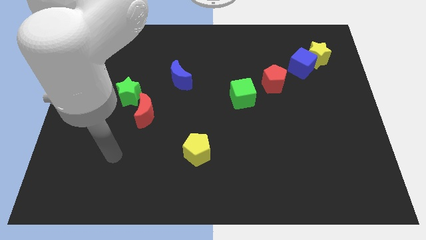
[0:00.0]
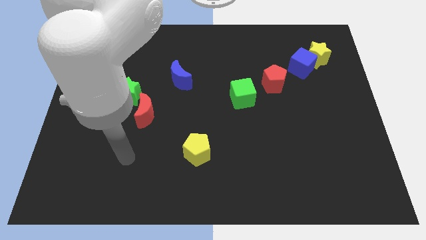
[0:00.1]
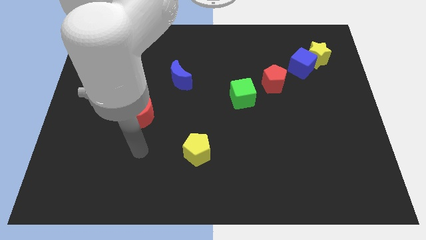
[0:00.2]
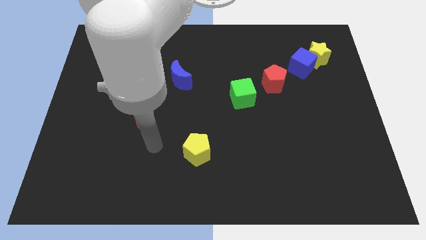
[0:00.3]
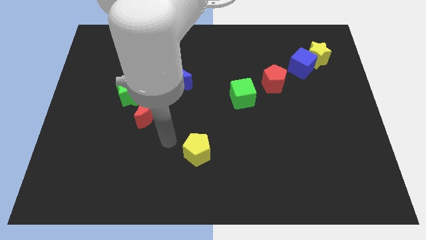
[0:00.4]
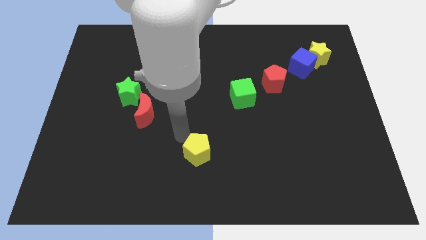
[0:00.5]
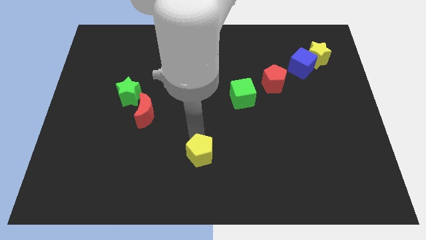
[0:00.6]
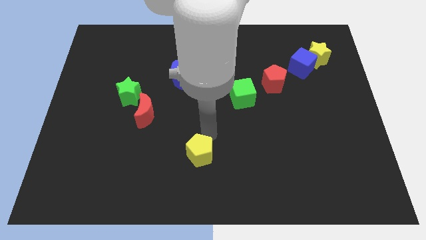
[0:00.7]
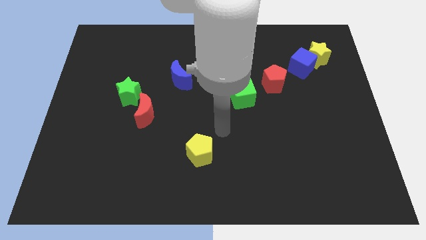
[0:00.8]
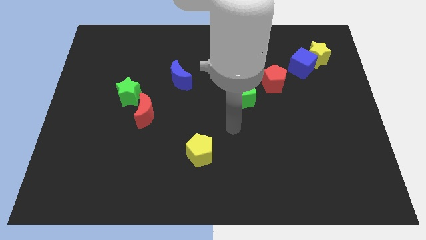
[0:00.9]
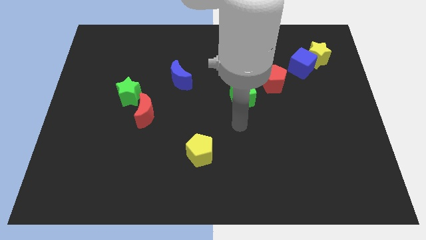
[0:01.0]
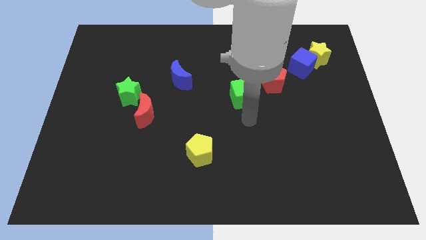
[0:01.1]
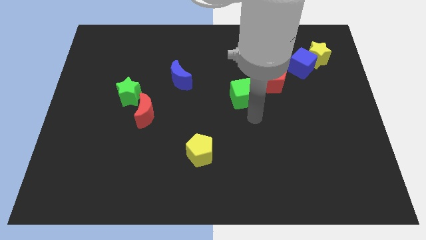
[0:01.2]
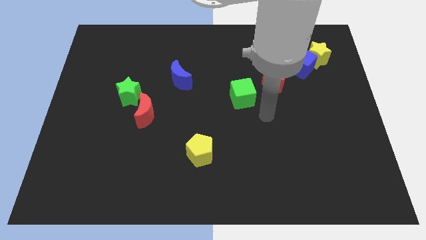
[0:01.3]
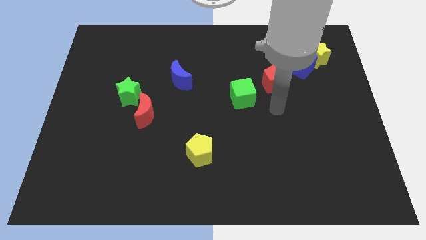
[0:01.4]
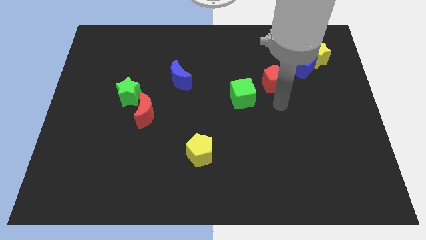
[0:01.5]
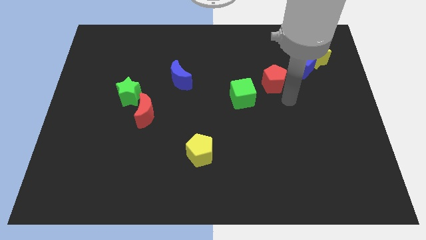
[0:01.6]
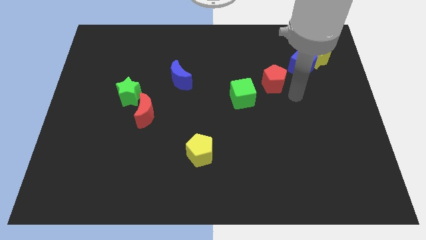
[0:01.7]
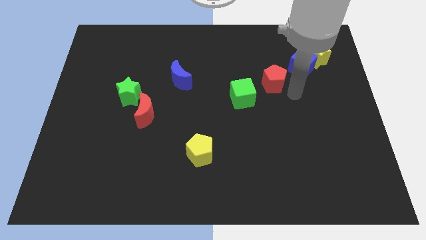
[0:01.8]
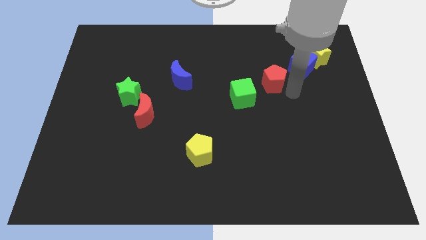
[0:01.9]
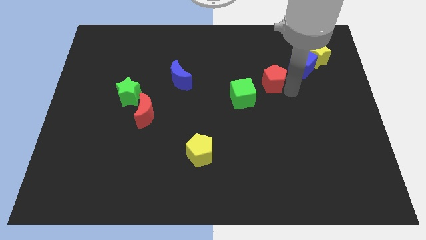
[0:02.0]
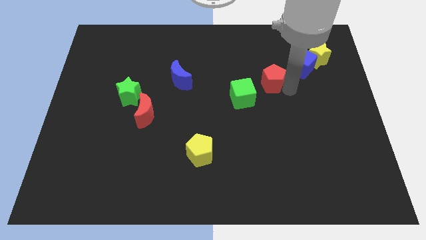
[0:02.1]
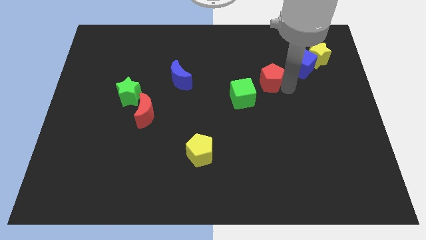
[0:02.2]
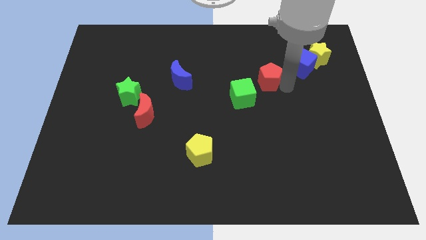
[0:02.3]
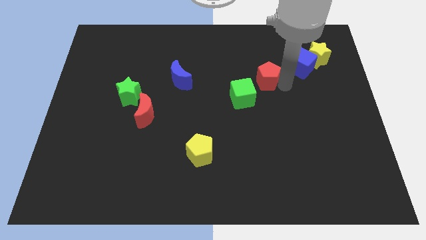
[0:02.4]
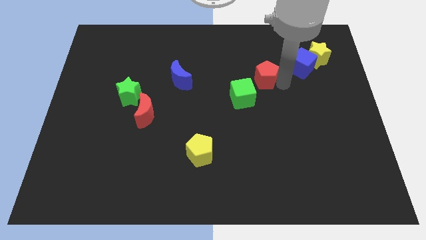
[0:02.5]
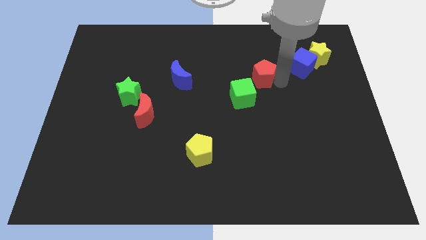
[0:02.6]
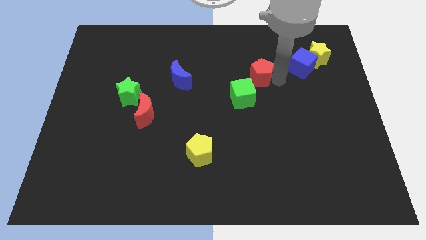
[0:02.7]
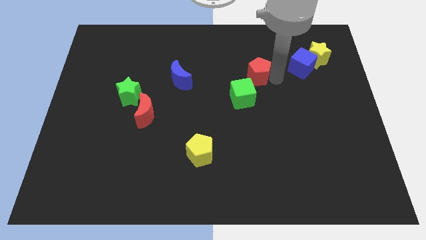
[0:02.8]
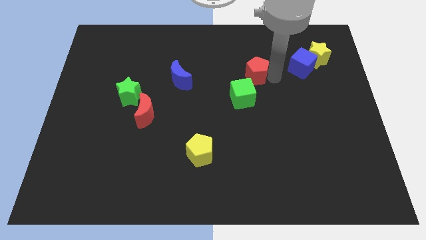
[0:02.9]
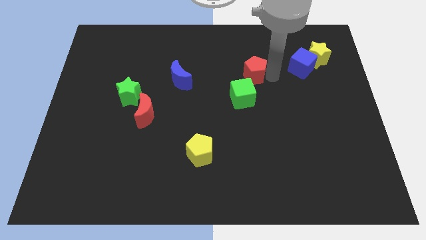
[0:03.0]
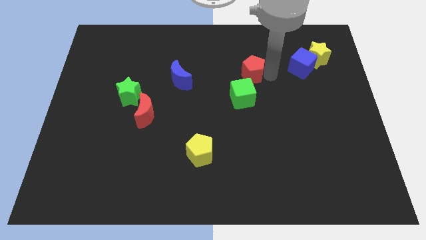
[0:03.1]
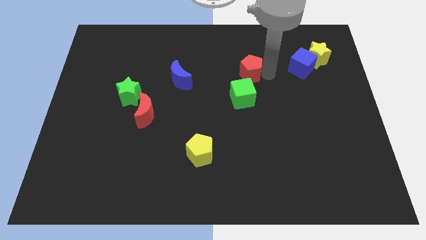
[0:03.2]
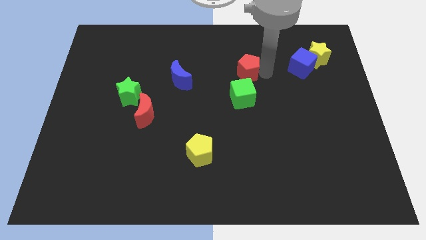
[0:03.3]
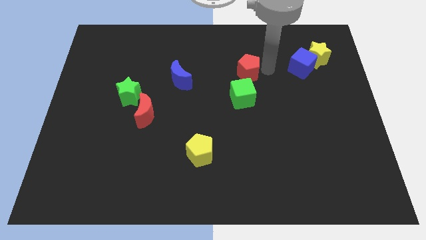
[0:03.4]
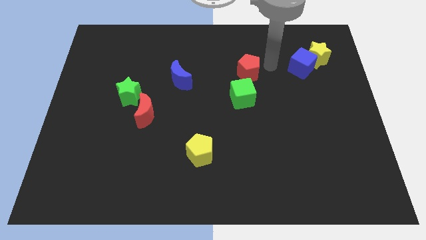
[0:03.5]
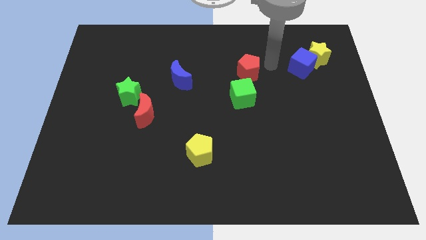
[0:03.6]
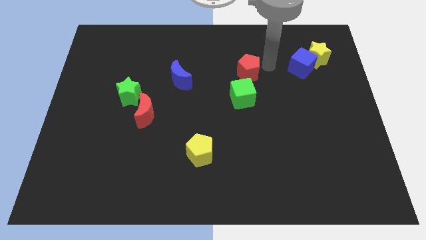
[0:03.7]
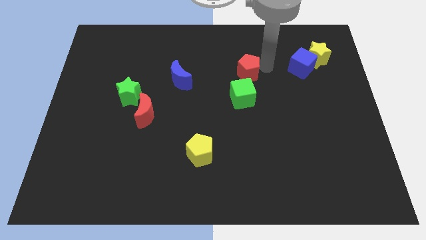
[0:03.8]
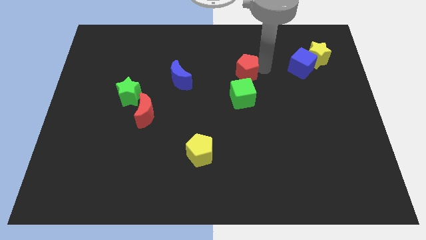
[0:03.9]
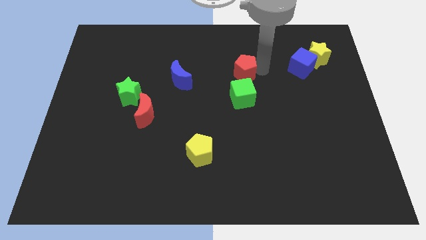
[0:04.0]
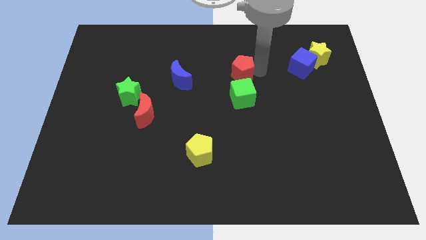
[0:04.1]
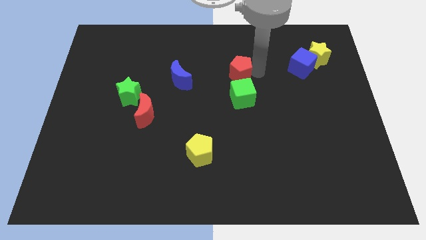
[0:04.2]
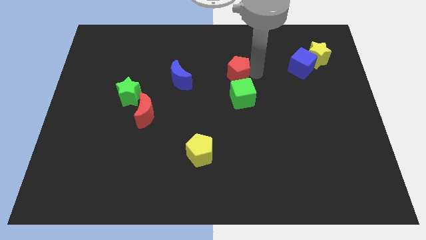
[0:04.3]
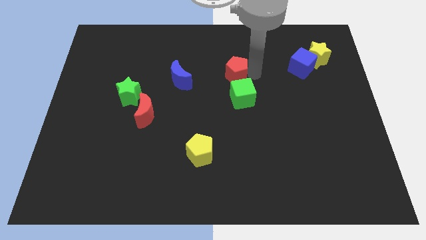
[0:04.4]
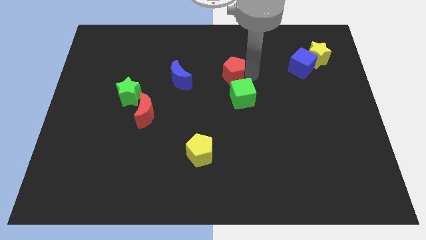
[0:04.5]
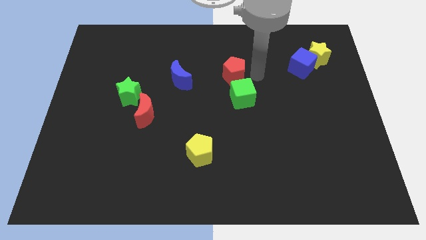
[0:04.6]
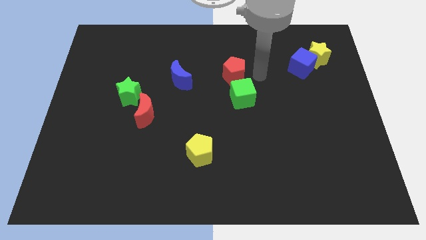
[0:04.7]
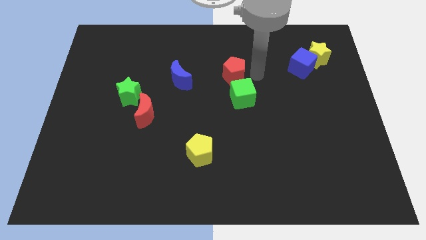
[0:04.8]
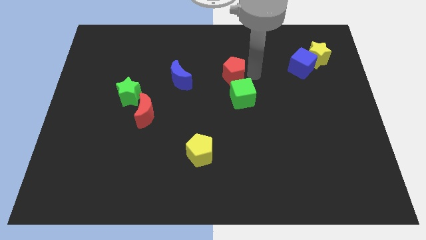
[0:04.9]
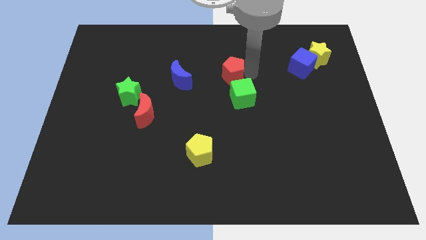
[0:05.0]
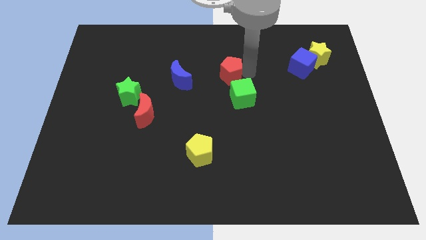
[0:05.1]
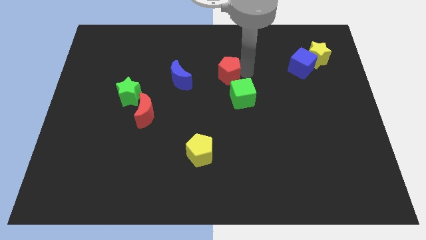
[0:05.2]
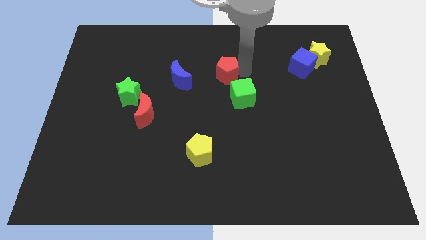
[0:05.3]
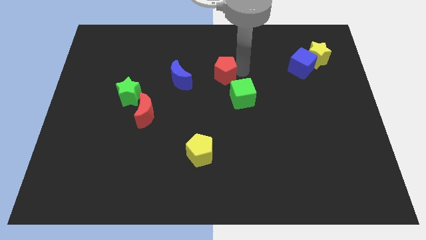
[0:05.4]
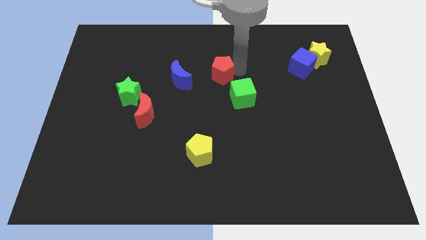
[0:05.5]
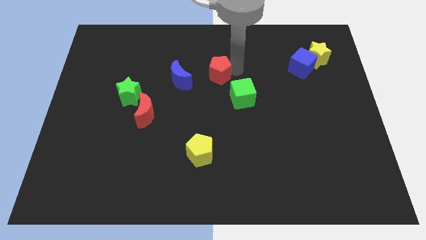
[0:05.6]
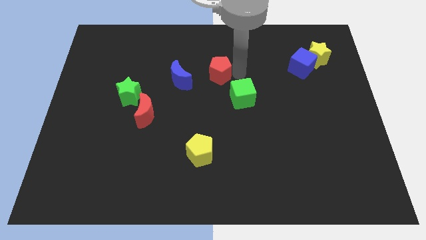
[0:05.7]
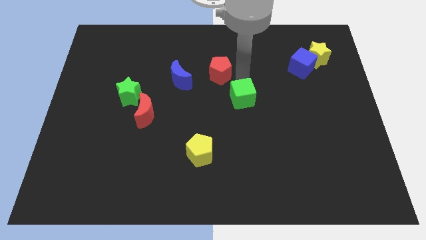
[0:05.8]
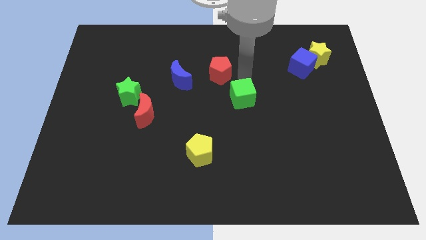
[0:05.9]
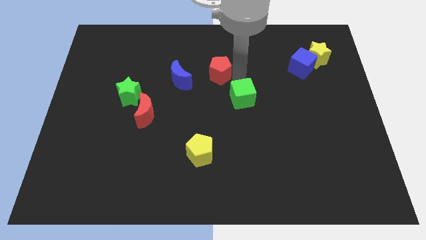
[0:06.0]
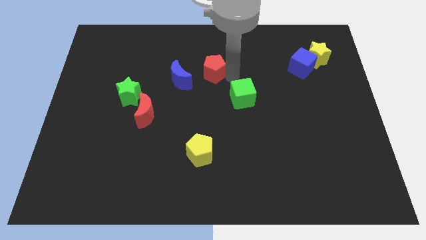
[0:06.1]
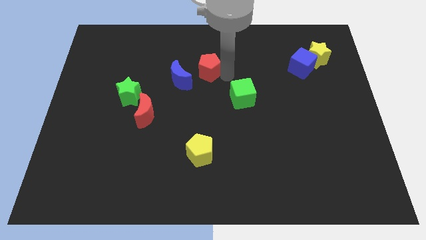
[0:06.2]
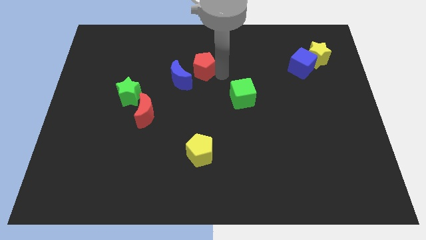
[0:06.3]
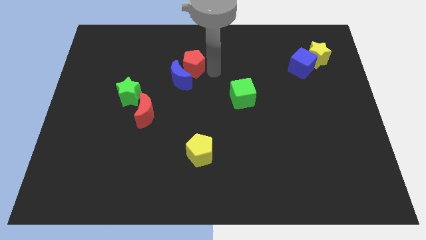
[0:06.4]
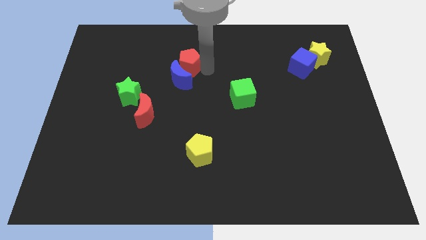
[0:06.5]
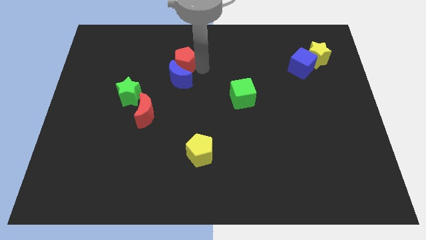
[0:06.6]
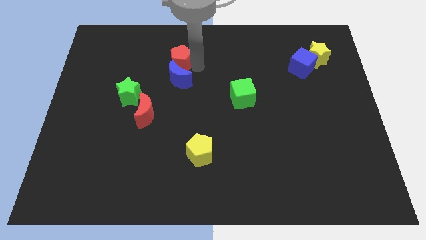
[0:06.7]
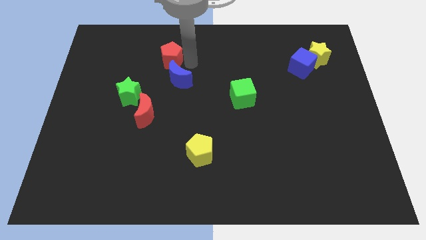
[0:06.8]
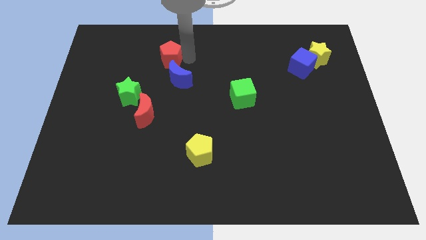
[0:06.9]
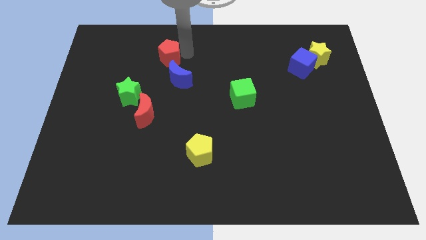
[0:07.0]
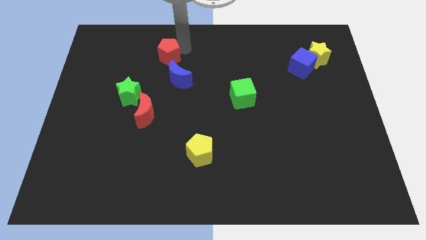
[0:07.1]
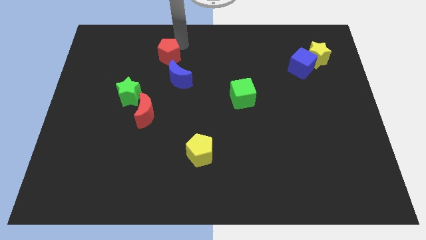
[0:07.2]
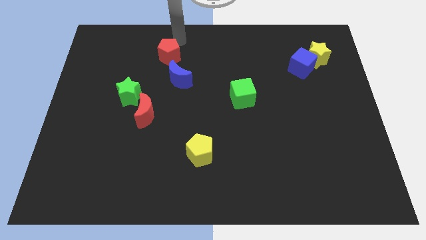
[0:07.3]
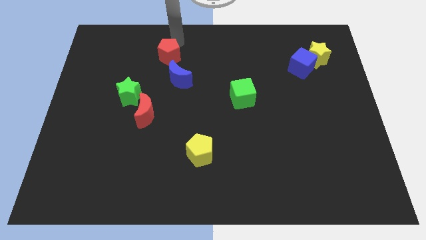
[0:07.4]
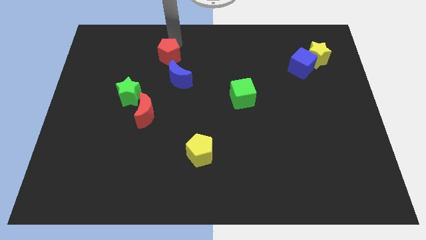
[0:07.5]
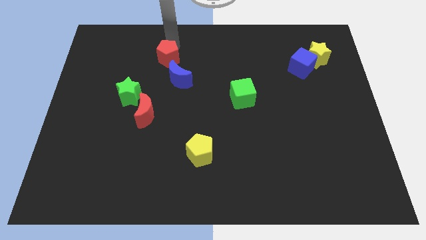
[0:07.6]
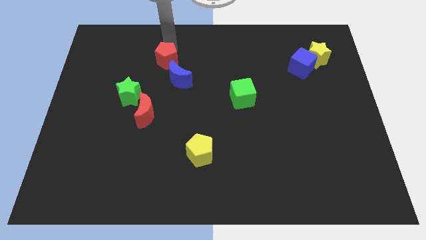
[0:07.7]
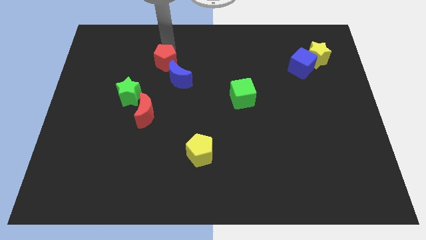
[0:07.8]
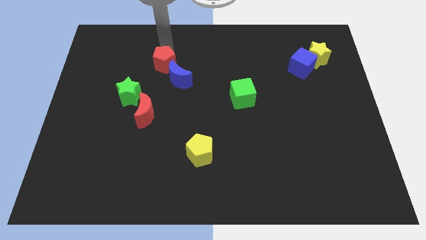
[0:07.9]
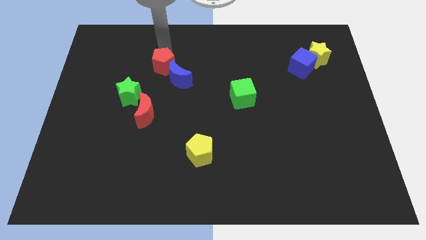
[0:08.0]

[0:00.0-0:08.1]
slide the red pentagon to the top right side of the green star
